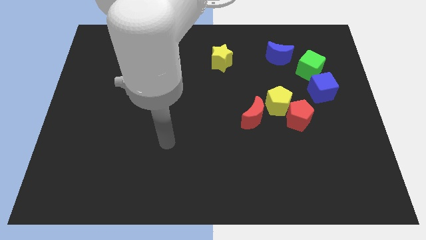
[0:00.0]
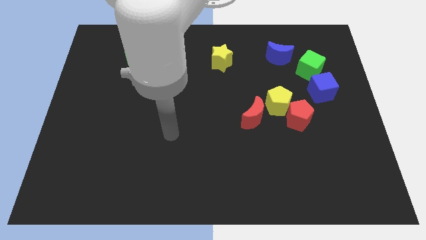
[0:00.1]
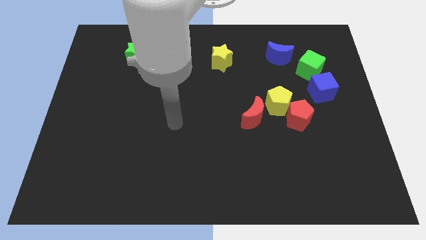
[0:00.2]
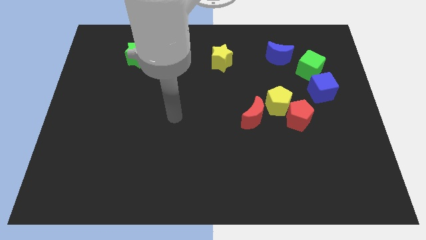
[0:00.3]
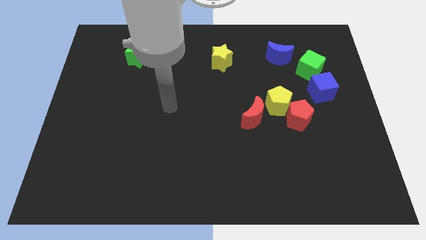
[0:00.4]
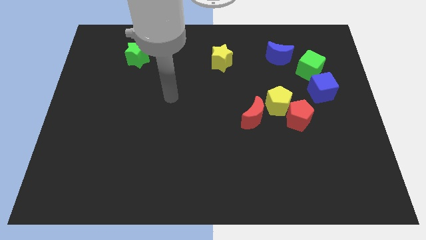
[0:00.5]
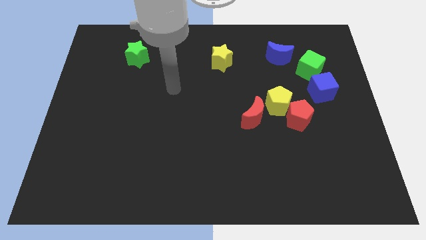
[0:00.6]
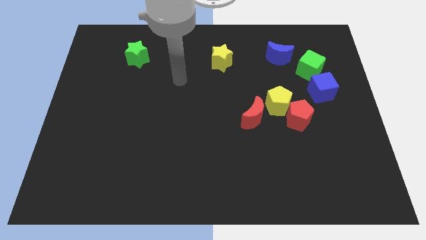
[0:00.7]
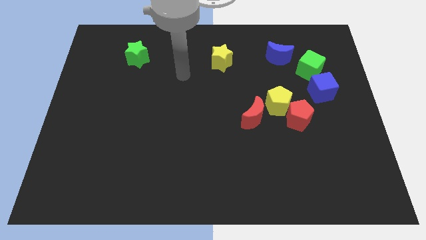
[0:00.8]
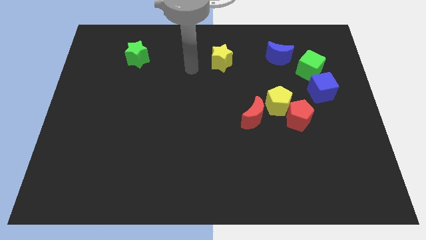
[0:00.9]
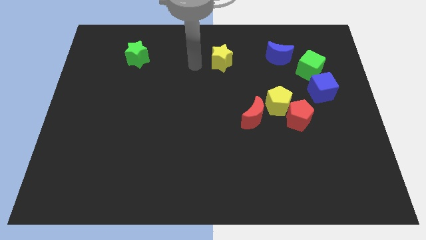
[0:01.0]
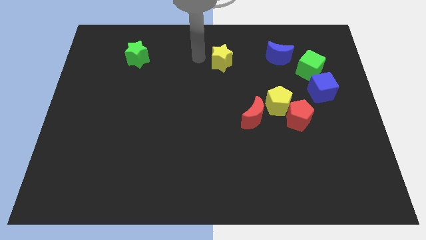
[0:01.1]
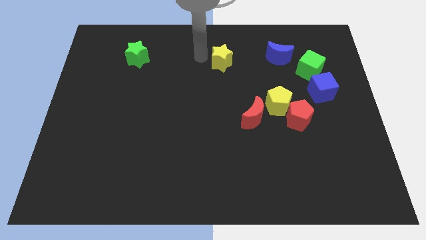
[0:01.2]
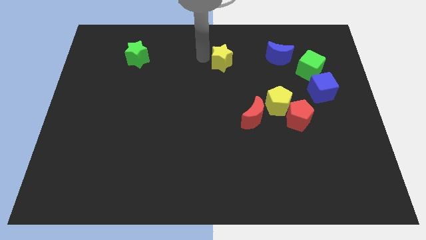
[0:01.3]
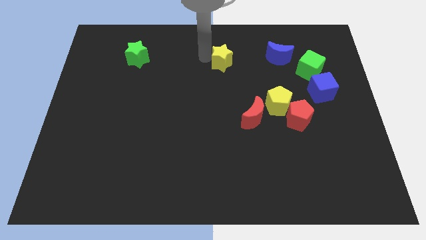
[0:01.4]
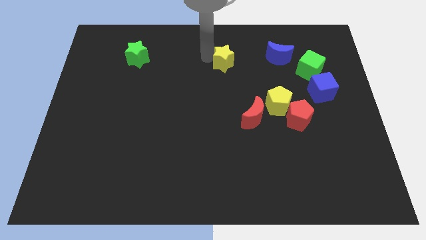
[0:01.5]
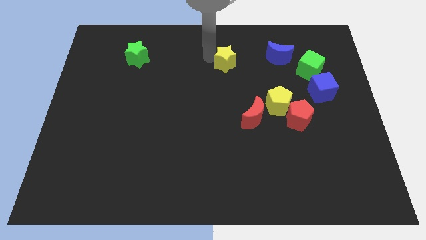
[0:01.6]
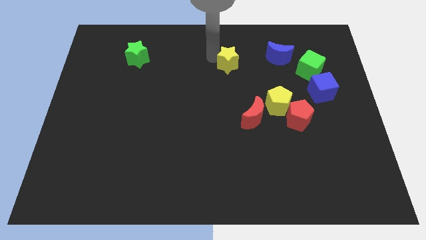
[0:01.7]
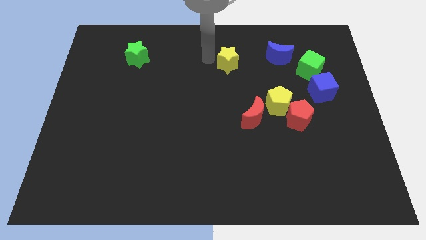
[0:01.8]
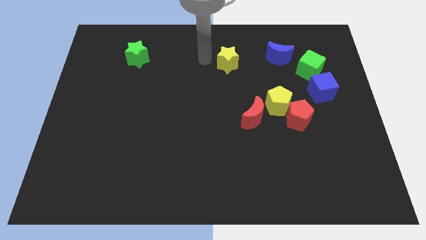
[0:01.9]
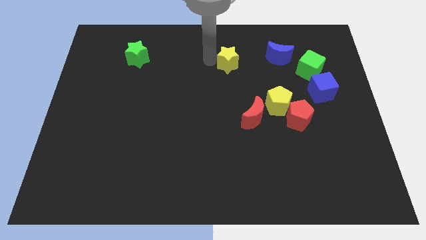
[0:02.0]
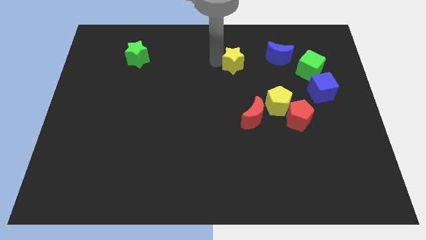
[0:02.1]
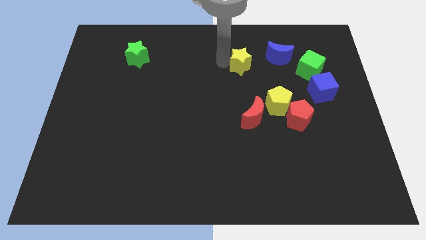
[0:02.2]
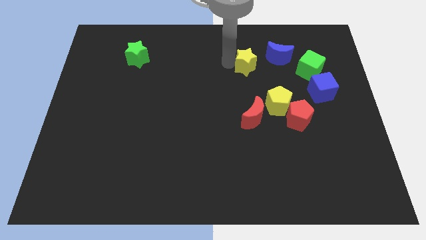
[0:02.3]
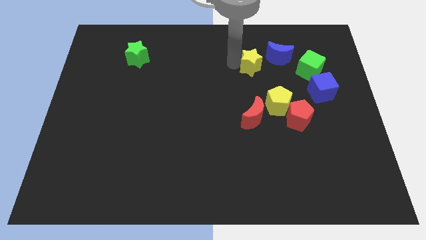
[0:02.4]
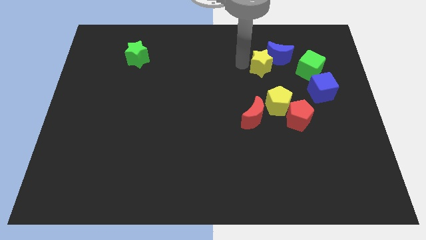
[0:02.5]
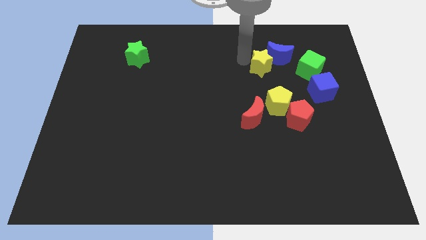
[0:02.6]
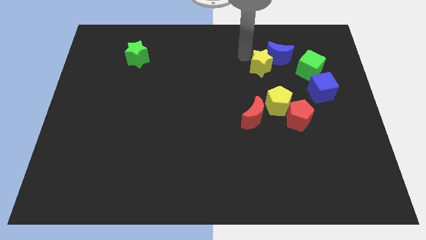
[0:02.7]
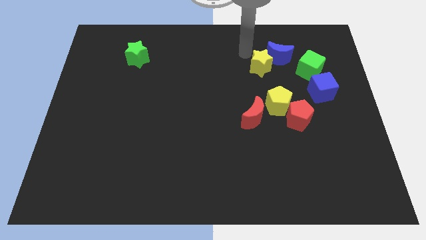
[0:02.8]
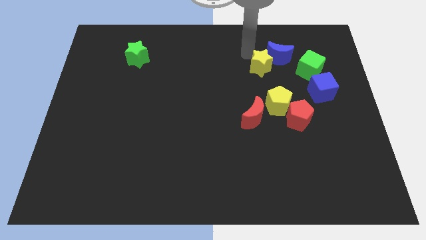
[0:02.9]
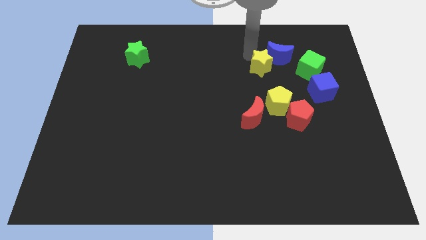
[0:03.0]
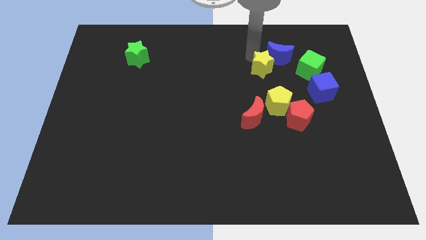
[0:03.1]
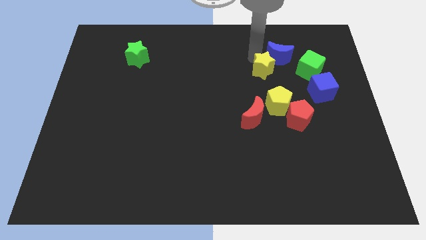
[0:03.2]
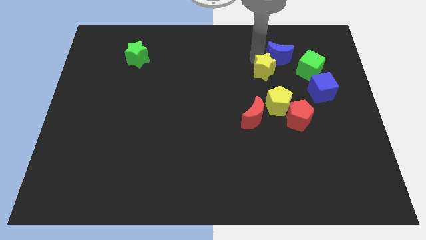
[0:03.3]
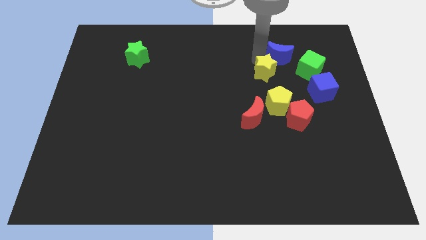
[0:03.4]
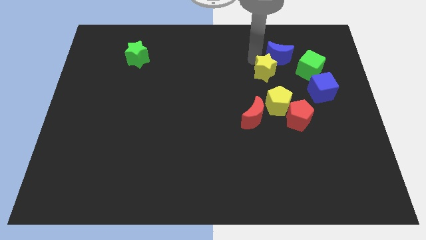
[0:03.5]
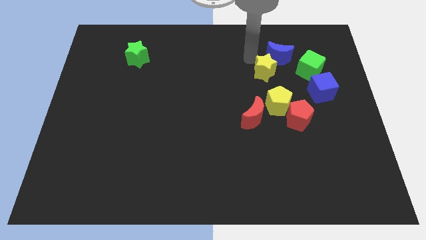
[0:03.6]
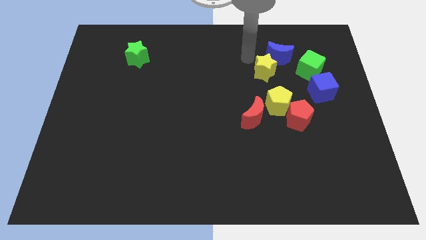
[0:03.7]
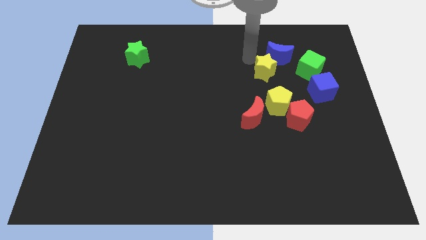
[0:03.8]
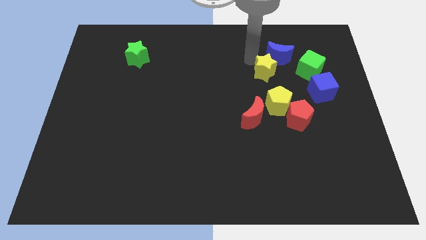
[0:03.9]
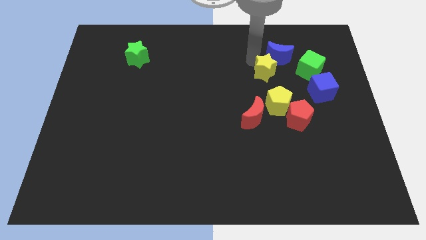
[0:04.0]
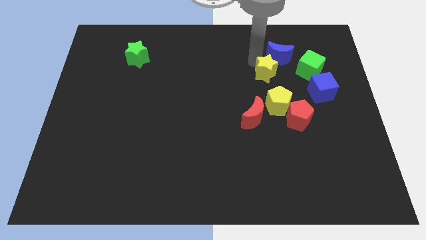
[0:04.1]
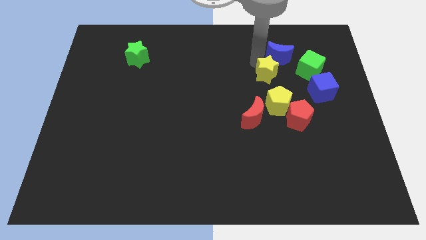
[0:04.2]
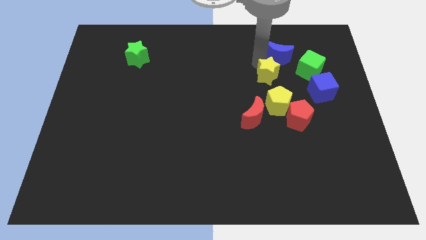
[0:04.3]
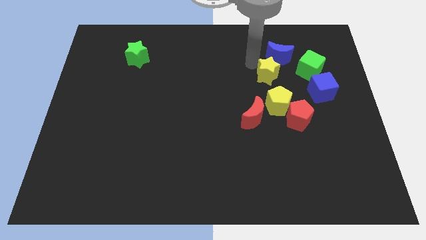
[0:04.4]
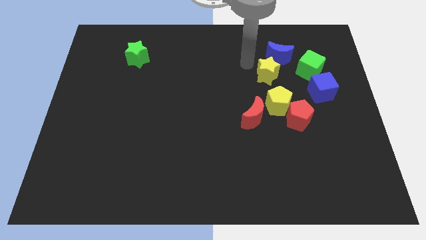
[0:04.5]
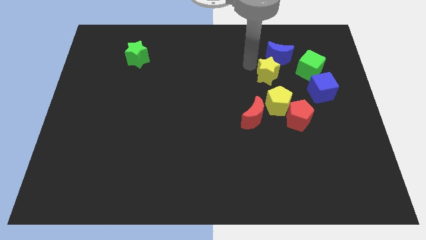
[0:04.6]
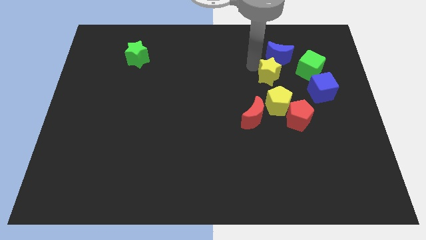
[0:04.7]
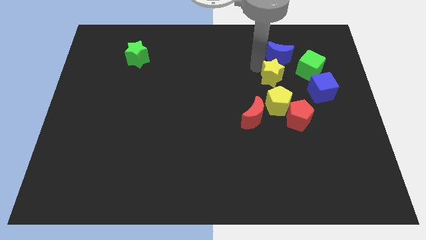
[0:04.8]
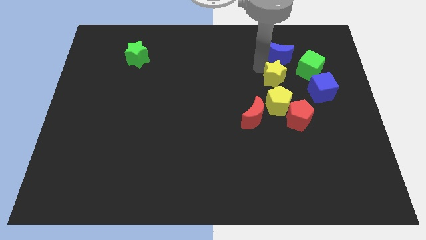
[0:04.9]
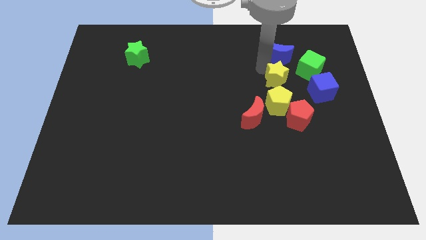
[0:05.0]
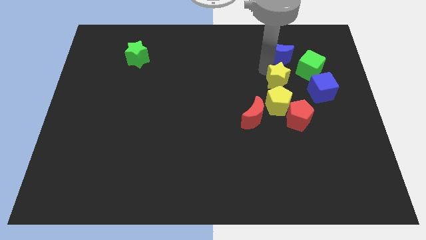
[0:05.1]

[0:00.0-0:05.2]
slide the yellow star to the top right of the yellow pentagon

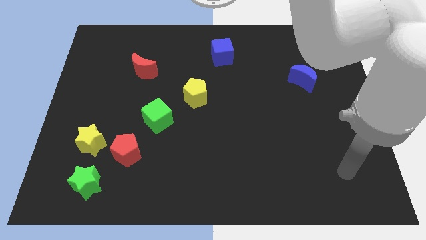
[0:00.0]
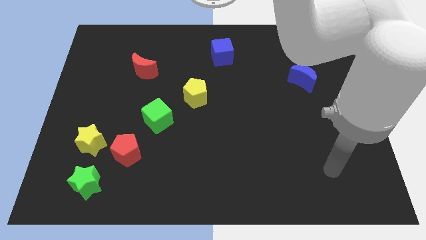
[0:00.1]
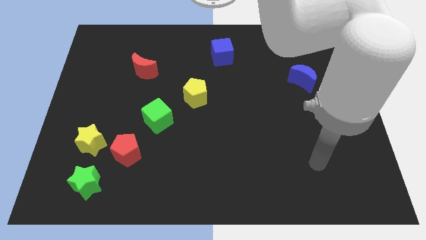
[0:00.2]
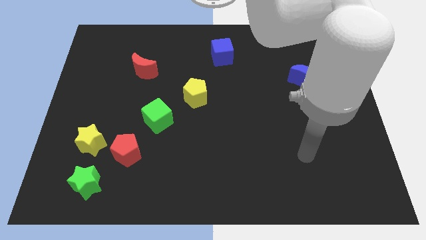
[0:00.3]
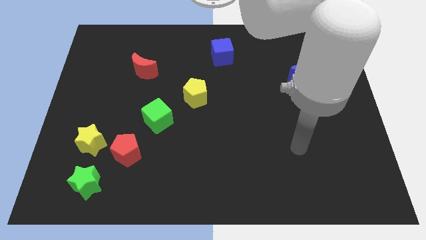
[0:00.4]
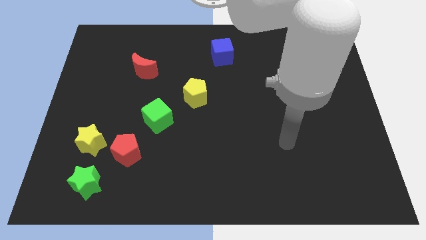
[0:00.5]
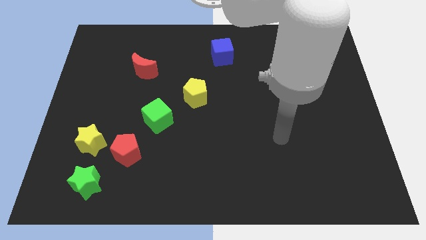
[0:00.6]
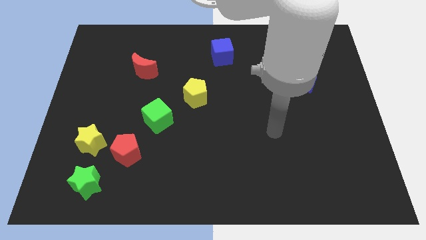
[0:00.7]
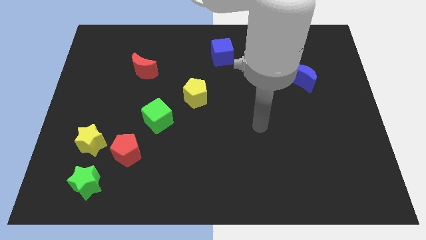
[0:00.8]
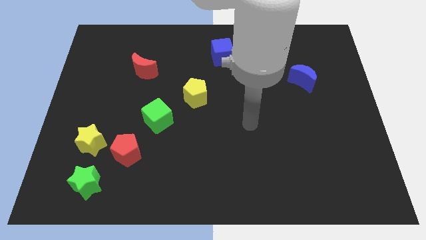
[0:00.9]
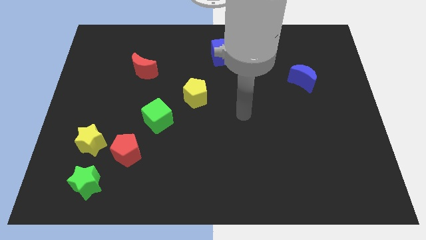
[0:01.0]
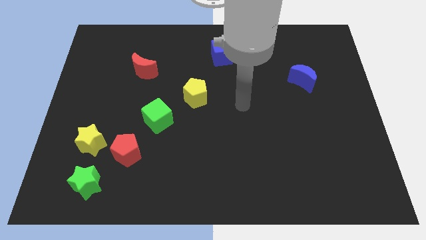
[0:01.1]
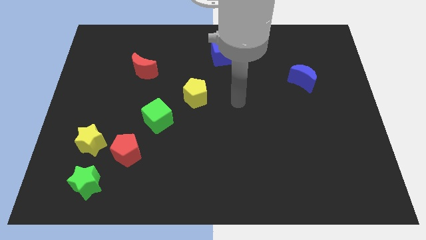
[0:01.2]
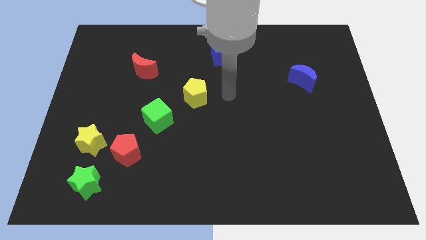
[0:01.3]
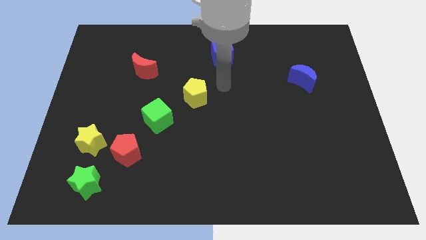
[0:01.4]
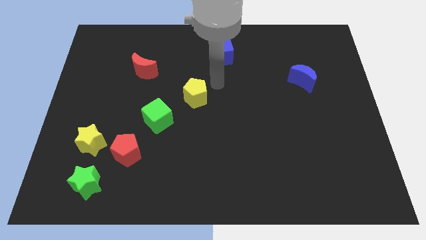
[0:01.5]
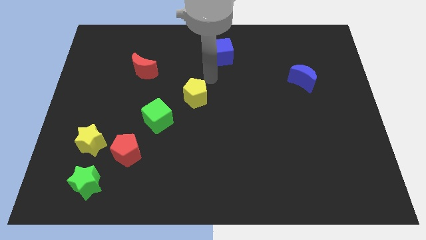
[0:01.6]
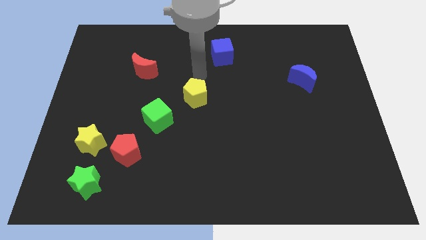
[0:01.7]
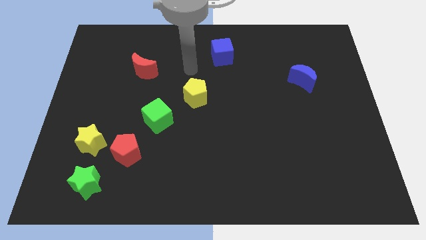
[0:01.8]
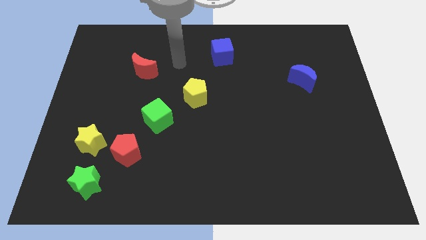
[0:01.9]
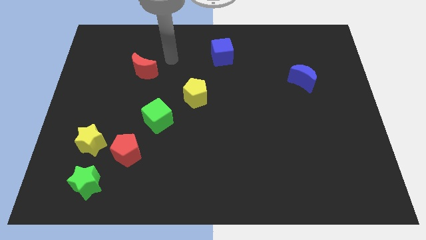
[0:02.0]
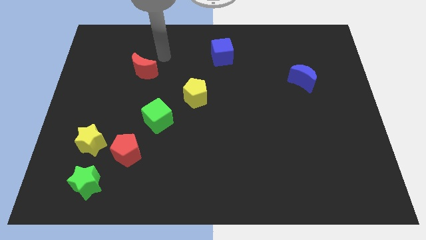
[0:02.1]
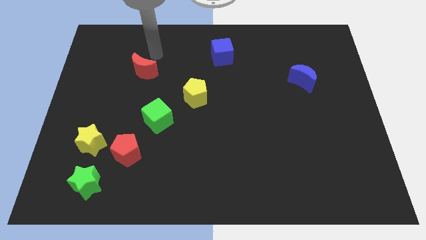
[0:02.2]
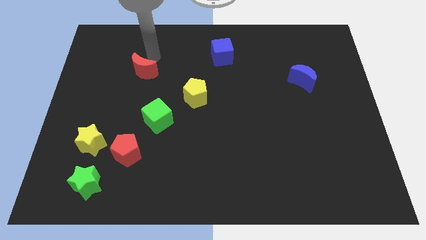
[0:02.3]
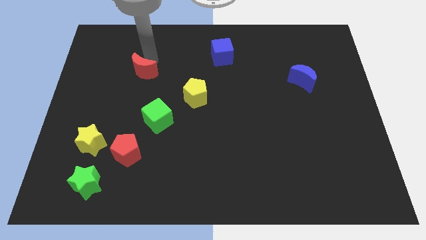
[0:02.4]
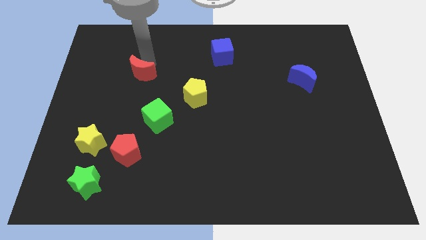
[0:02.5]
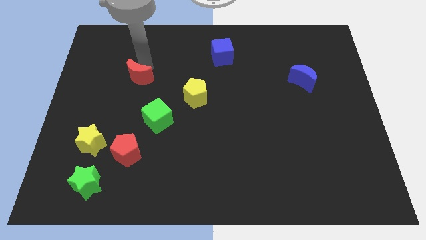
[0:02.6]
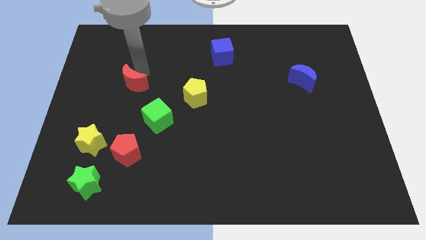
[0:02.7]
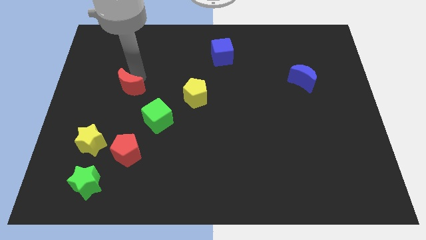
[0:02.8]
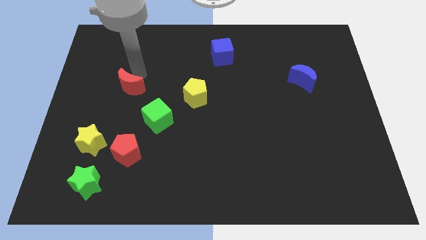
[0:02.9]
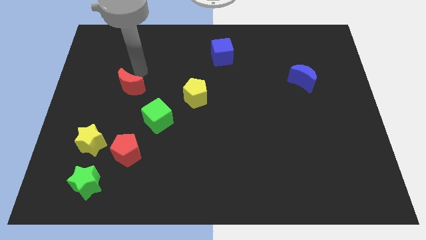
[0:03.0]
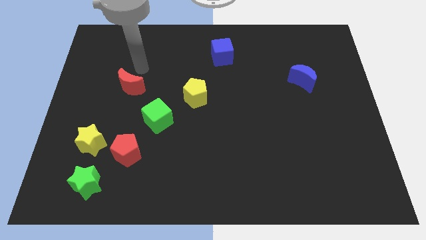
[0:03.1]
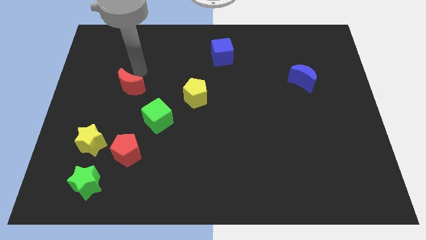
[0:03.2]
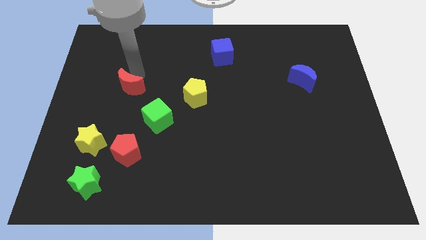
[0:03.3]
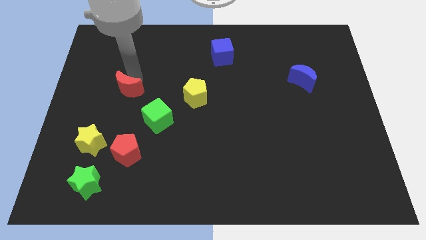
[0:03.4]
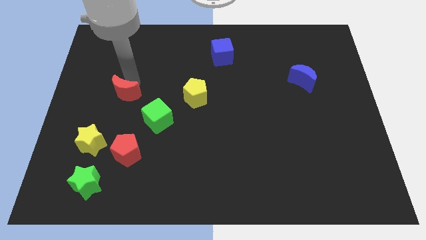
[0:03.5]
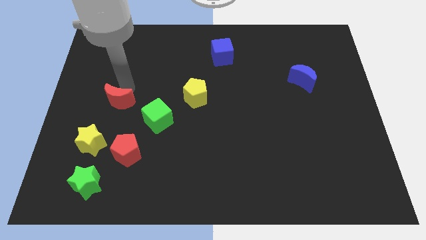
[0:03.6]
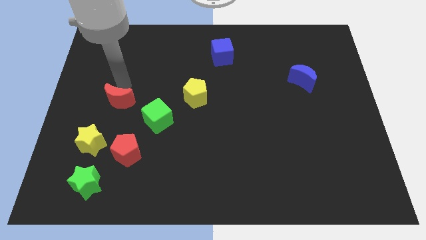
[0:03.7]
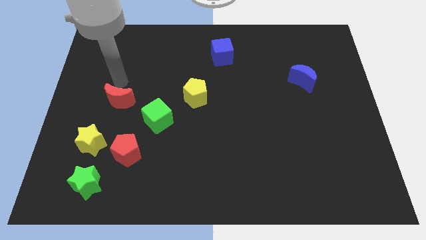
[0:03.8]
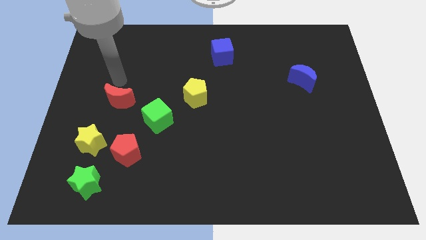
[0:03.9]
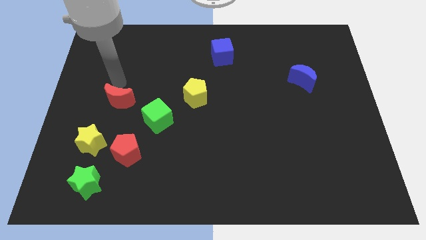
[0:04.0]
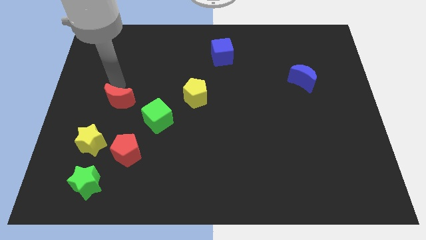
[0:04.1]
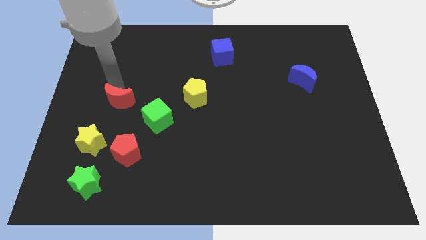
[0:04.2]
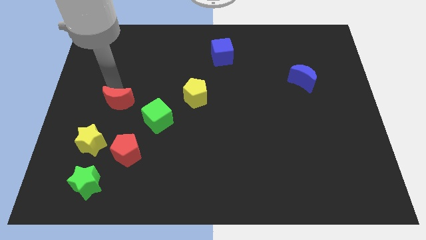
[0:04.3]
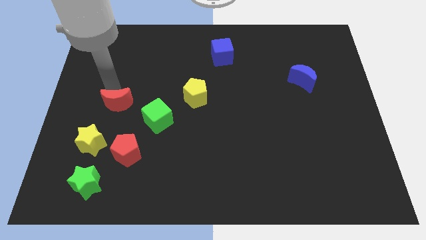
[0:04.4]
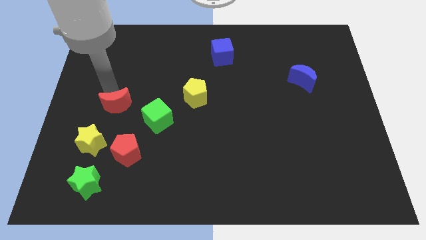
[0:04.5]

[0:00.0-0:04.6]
slide the red moon to the top right side of the yellow star
